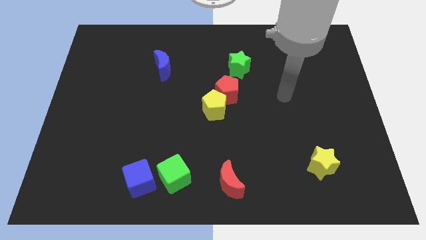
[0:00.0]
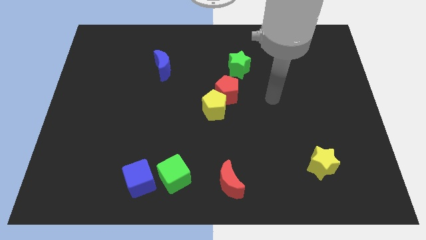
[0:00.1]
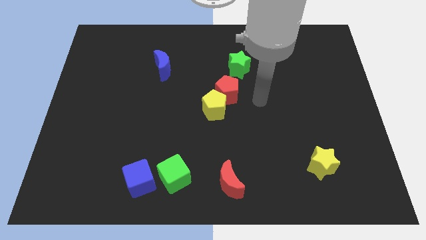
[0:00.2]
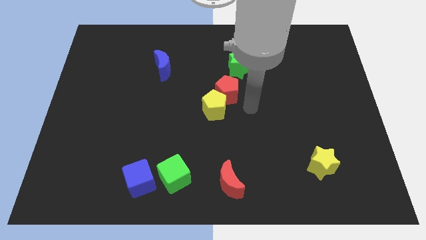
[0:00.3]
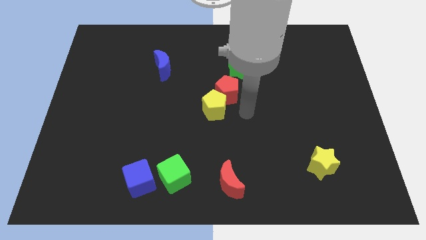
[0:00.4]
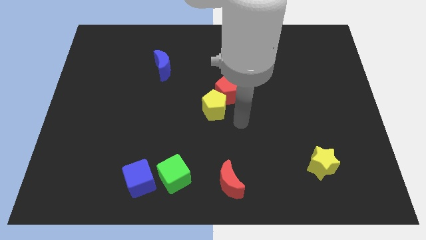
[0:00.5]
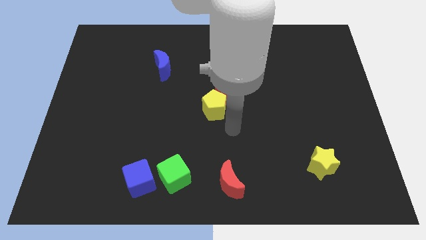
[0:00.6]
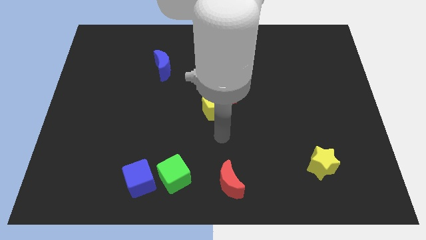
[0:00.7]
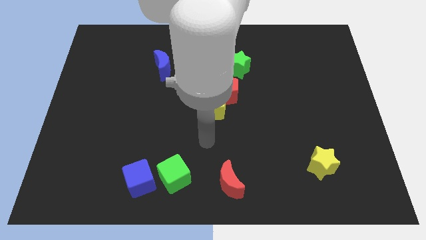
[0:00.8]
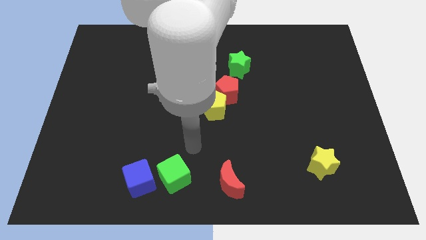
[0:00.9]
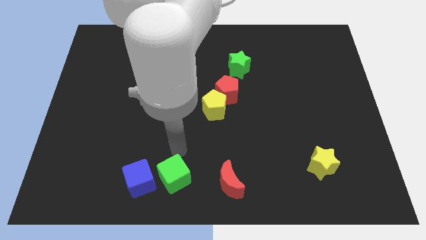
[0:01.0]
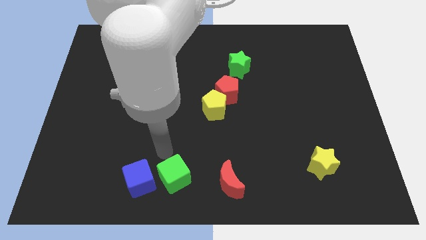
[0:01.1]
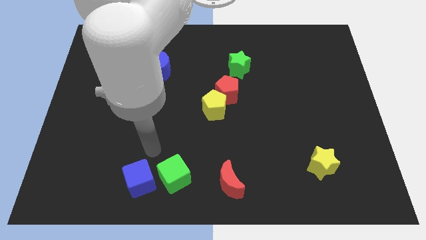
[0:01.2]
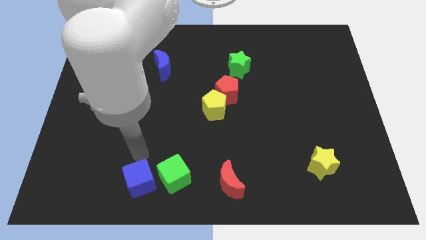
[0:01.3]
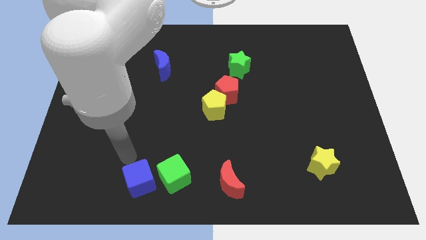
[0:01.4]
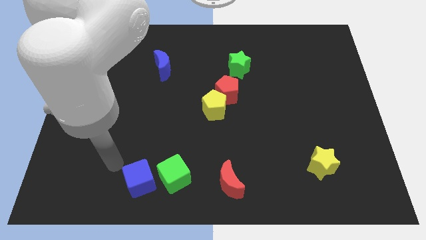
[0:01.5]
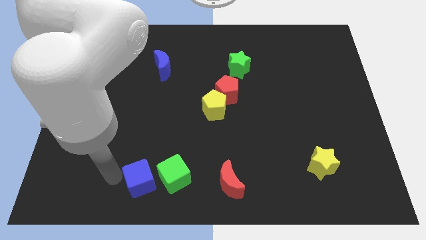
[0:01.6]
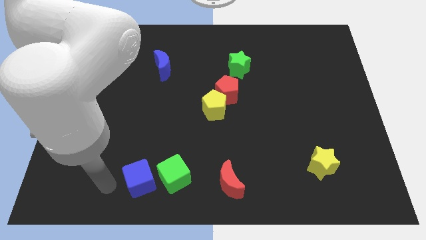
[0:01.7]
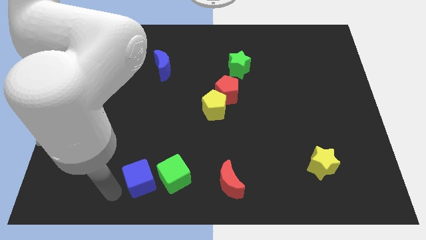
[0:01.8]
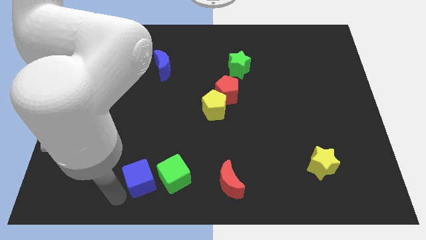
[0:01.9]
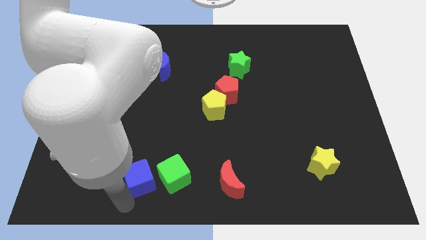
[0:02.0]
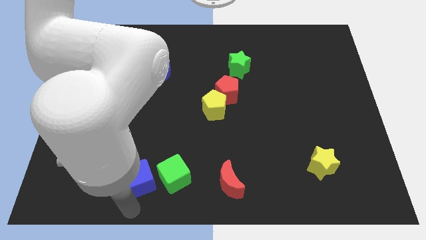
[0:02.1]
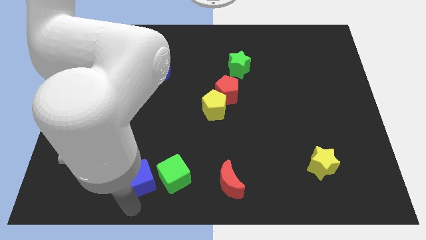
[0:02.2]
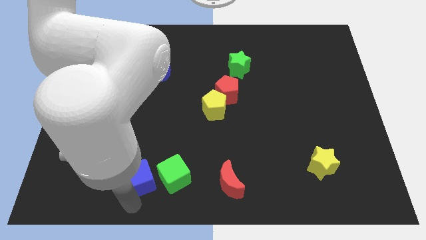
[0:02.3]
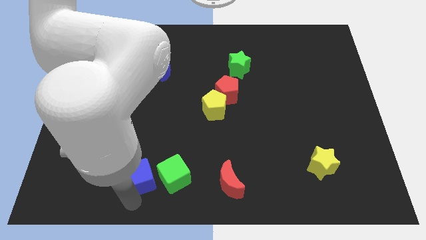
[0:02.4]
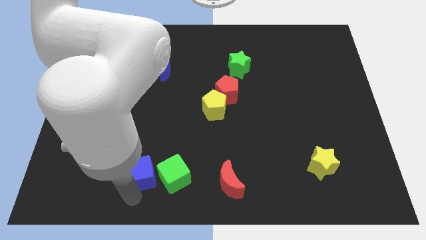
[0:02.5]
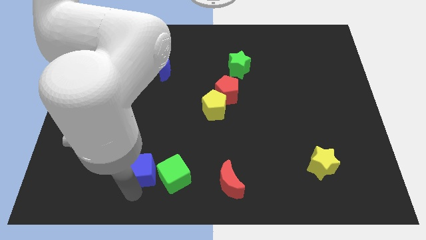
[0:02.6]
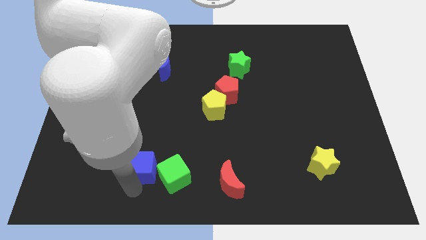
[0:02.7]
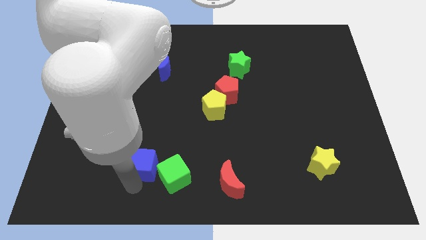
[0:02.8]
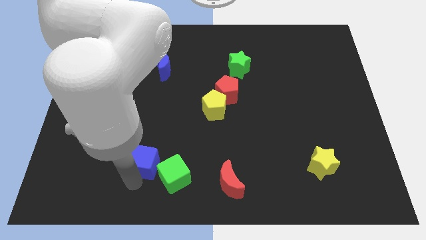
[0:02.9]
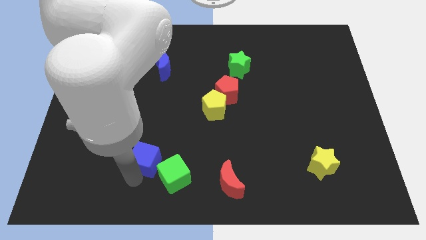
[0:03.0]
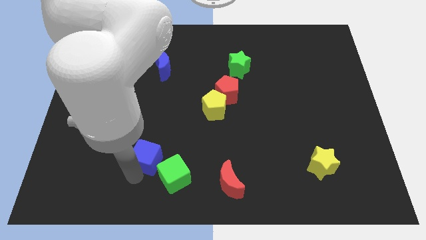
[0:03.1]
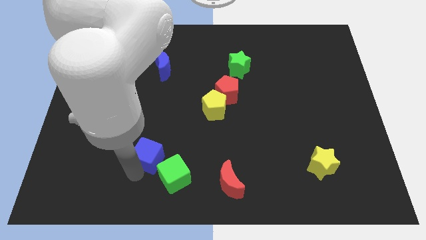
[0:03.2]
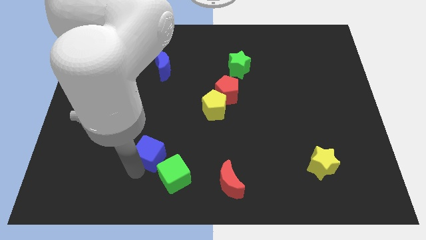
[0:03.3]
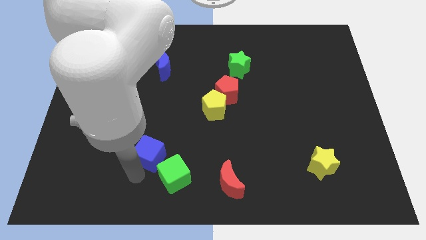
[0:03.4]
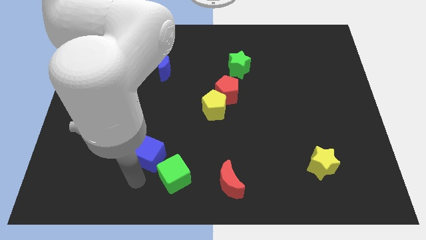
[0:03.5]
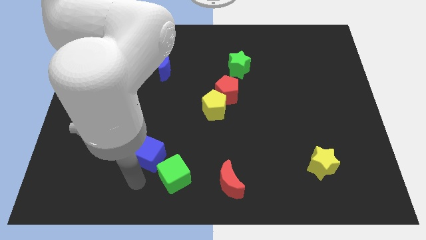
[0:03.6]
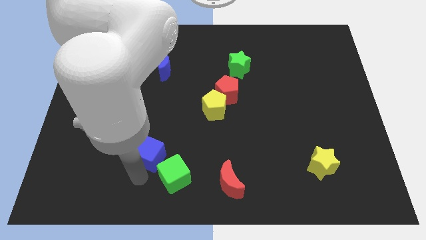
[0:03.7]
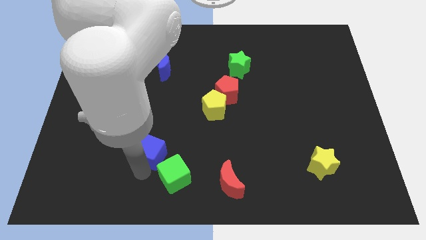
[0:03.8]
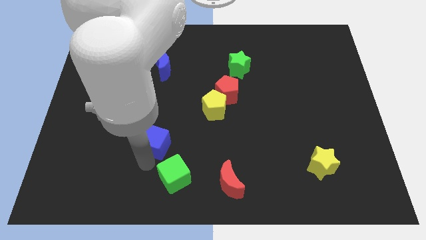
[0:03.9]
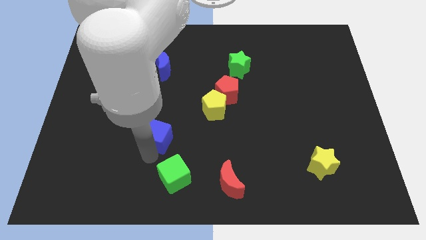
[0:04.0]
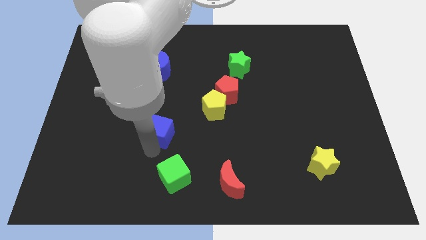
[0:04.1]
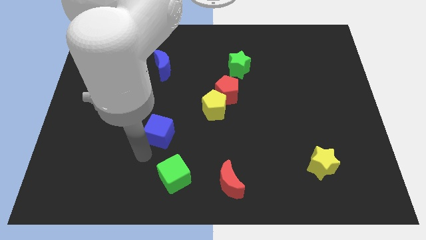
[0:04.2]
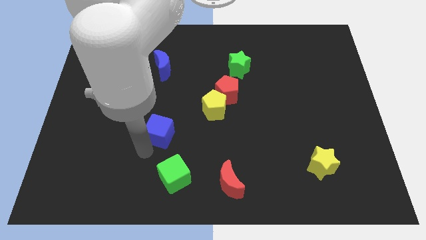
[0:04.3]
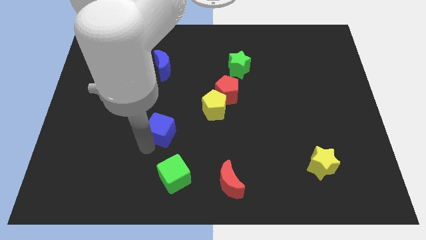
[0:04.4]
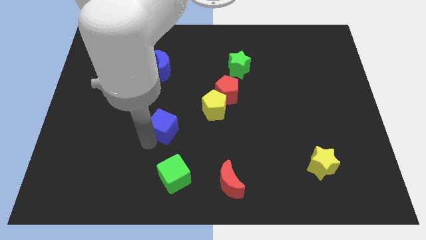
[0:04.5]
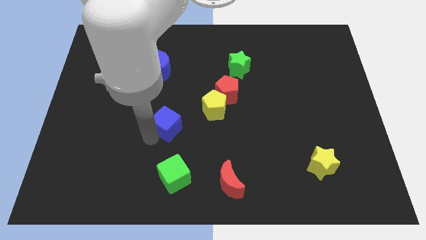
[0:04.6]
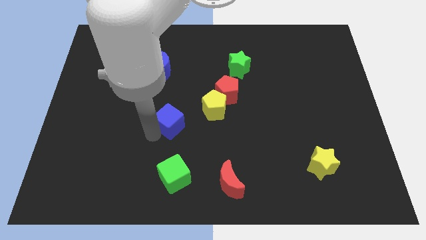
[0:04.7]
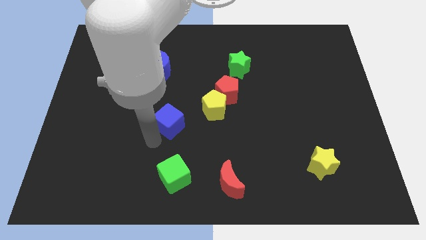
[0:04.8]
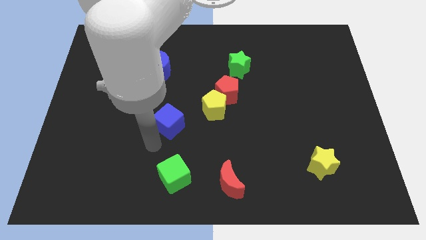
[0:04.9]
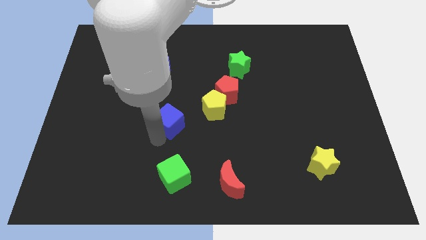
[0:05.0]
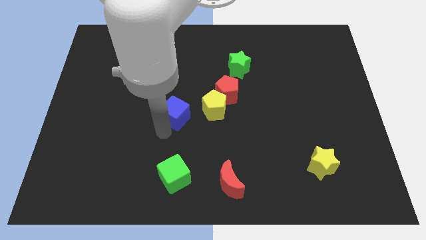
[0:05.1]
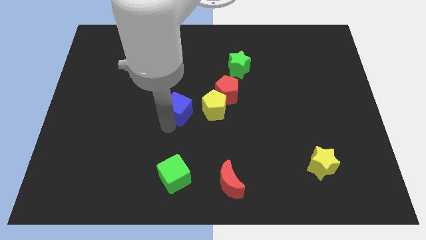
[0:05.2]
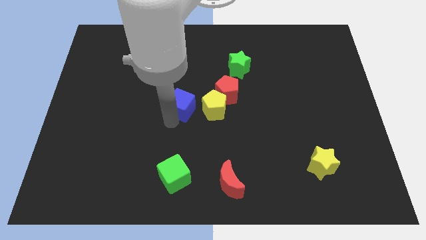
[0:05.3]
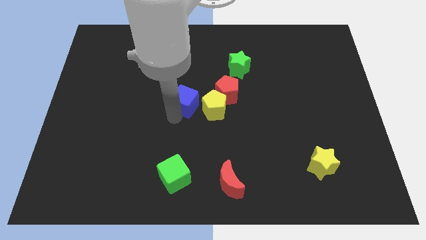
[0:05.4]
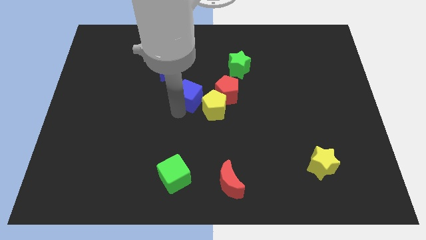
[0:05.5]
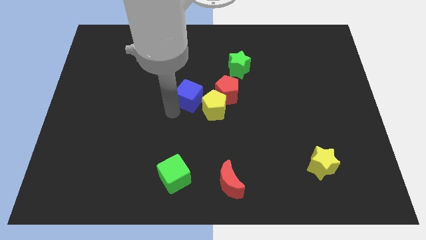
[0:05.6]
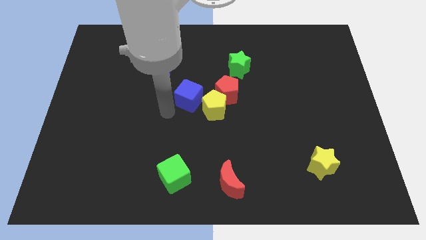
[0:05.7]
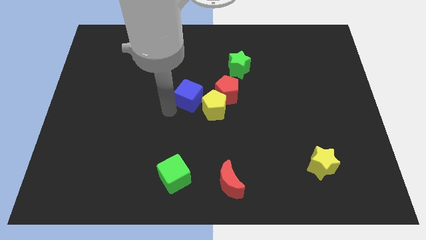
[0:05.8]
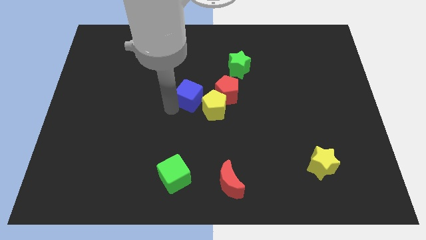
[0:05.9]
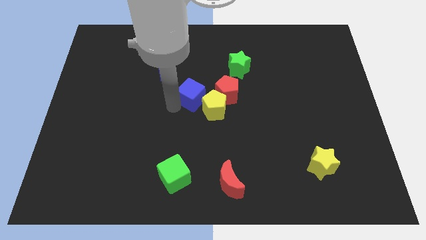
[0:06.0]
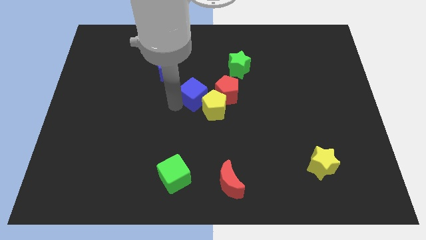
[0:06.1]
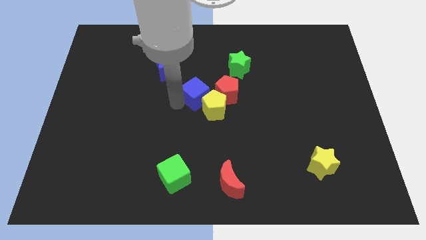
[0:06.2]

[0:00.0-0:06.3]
move the blue cube above the yellow pentagon

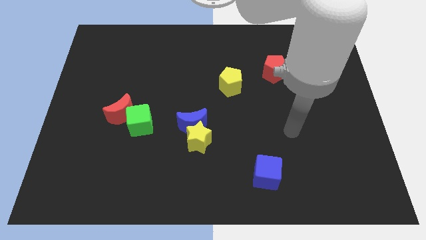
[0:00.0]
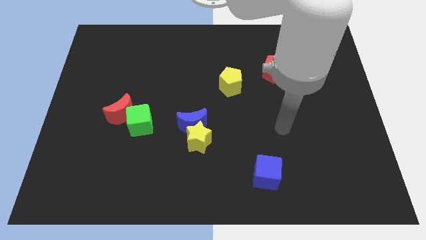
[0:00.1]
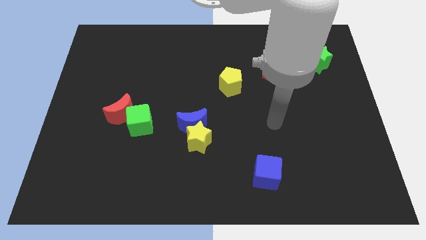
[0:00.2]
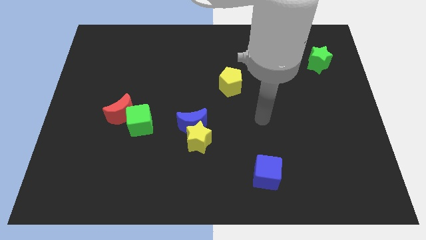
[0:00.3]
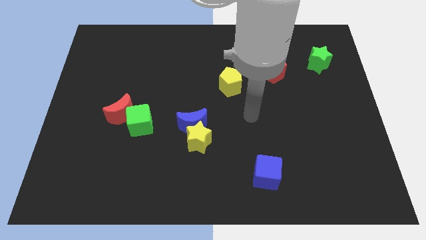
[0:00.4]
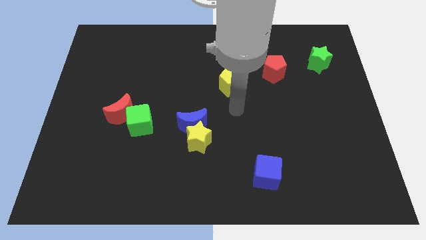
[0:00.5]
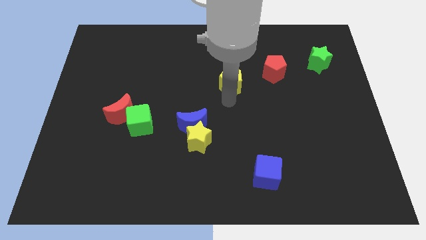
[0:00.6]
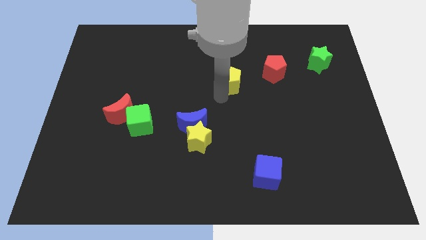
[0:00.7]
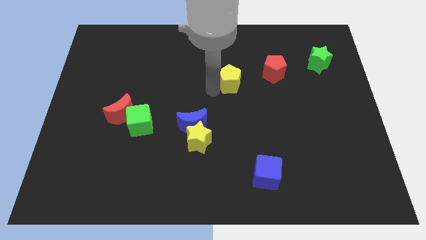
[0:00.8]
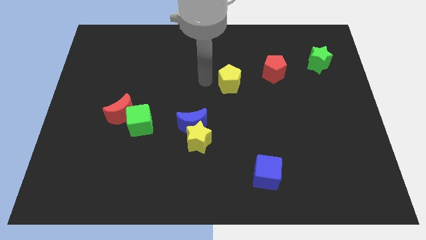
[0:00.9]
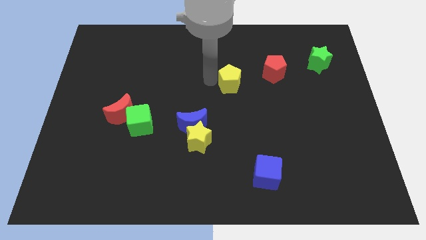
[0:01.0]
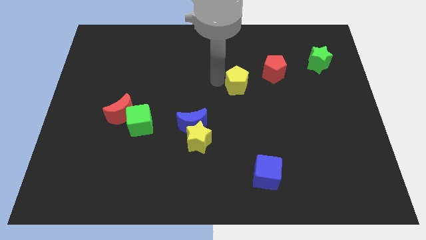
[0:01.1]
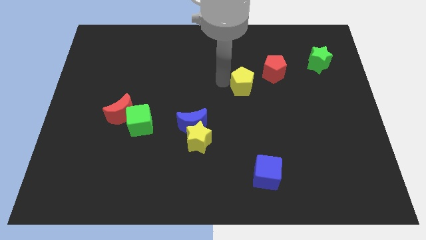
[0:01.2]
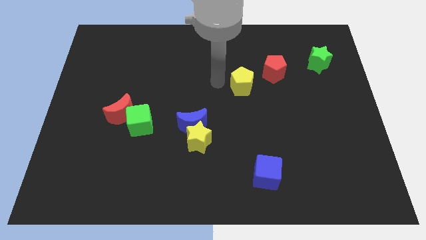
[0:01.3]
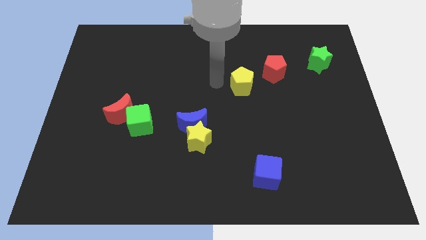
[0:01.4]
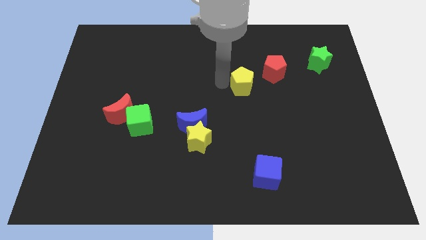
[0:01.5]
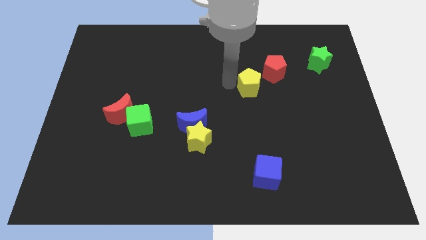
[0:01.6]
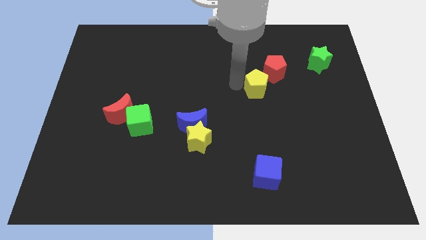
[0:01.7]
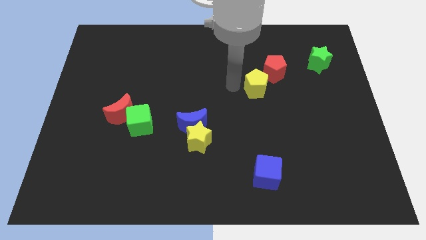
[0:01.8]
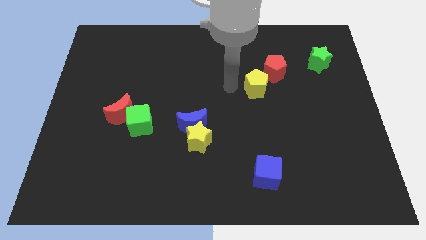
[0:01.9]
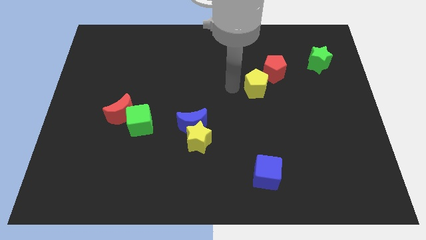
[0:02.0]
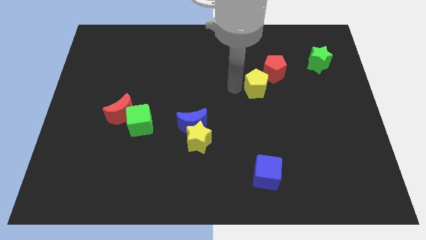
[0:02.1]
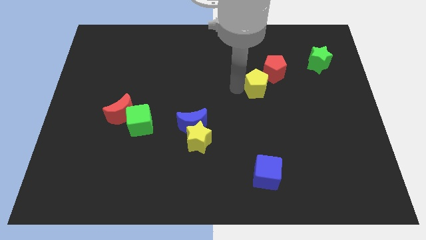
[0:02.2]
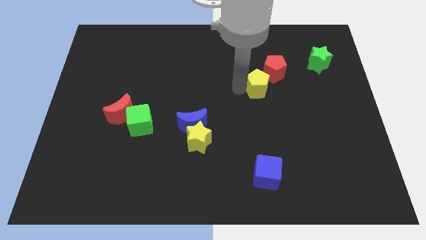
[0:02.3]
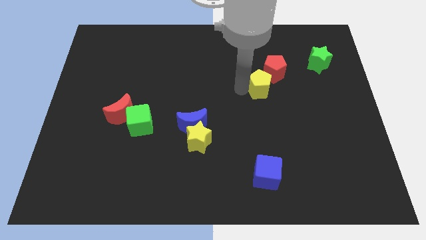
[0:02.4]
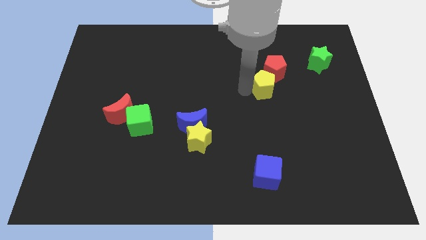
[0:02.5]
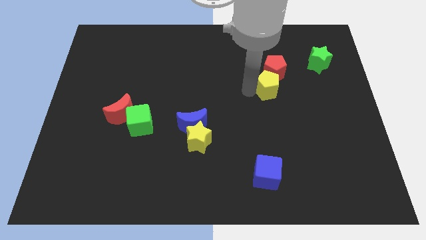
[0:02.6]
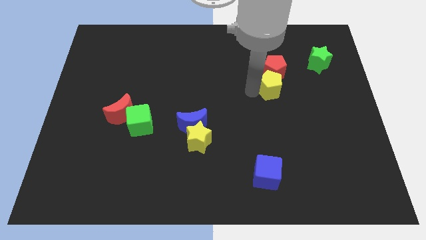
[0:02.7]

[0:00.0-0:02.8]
slide the yellow pentagon to the bottom right of the red pentagon
